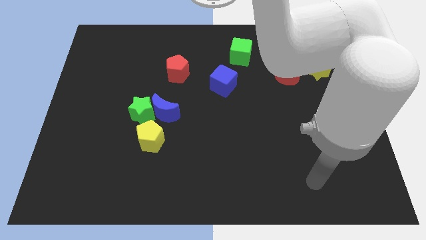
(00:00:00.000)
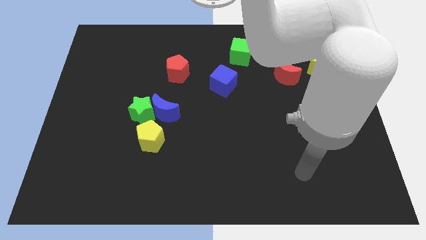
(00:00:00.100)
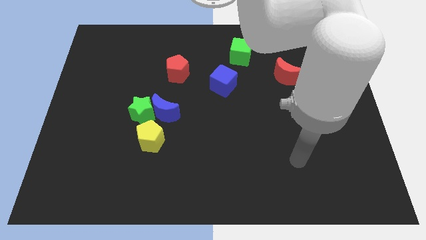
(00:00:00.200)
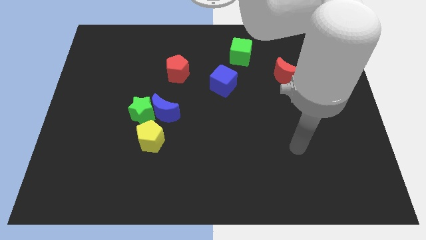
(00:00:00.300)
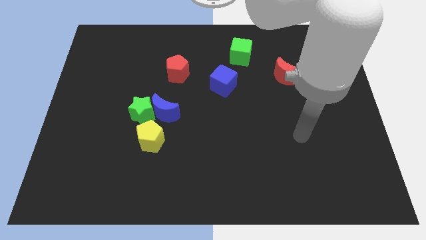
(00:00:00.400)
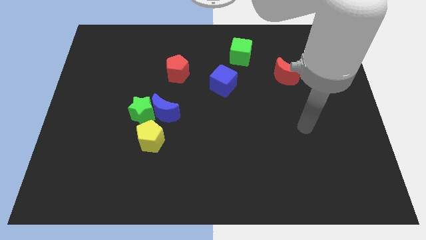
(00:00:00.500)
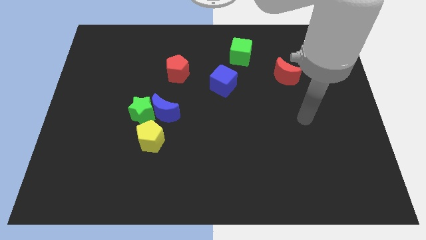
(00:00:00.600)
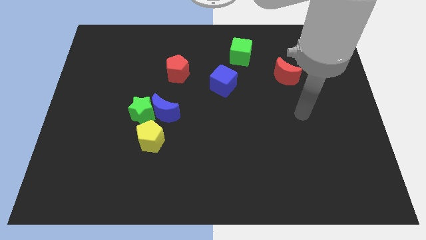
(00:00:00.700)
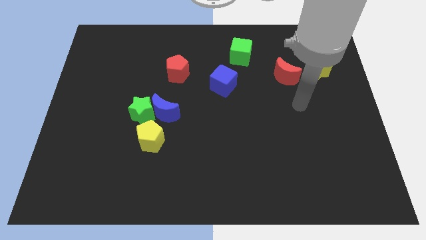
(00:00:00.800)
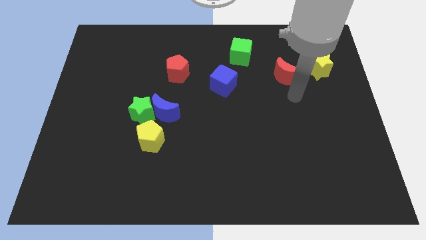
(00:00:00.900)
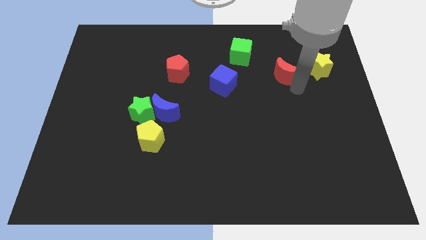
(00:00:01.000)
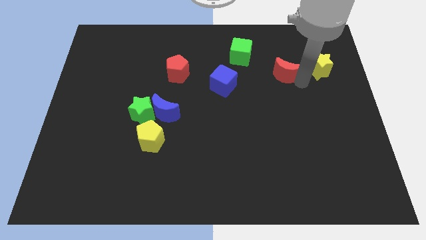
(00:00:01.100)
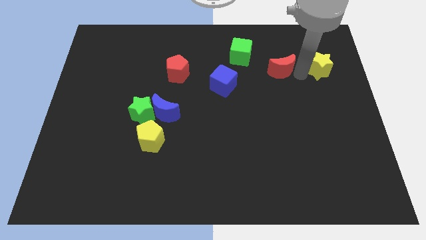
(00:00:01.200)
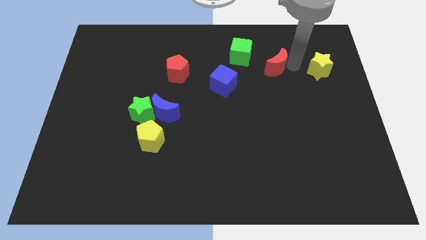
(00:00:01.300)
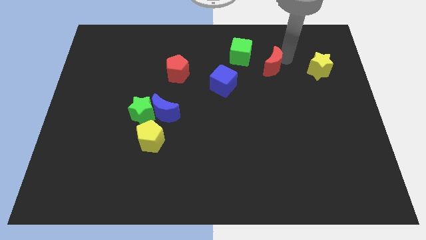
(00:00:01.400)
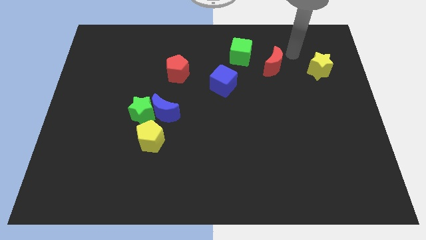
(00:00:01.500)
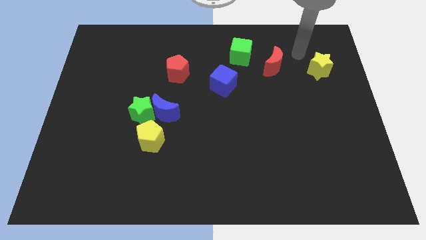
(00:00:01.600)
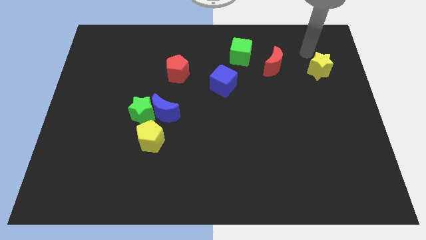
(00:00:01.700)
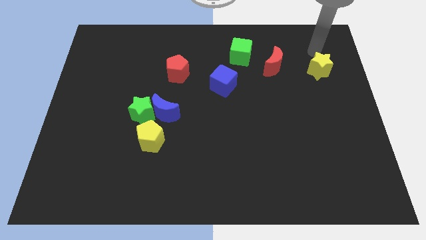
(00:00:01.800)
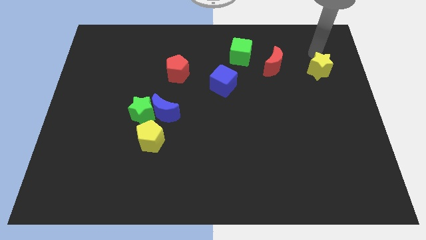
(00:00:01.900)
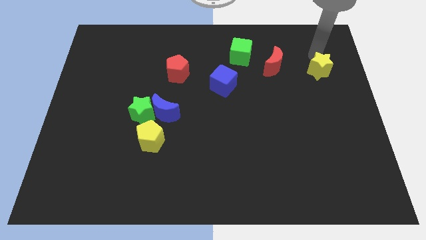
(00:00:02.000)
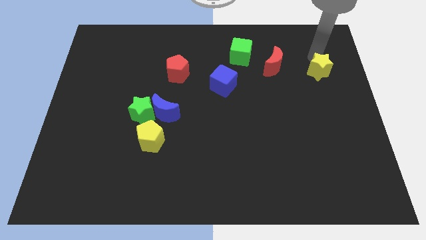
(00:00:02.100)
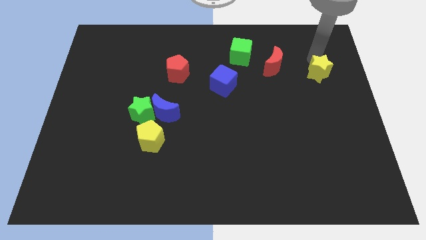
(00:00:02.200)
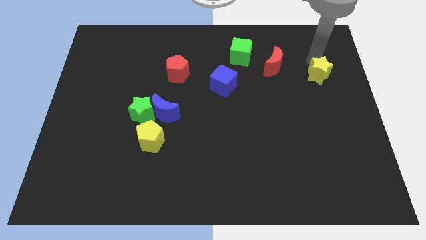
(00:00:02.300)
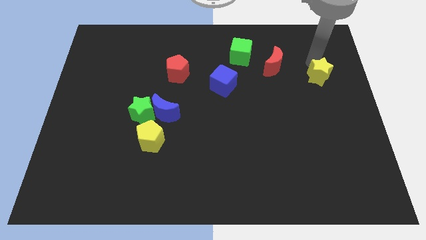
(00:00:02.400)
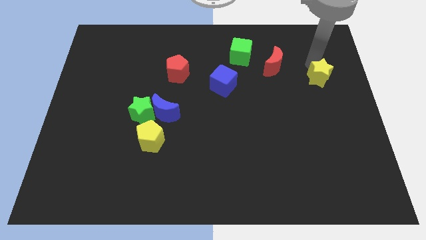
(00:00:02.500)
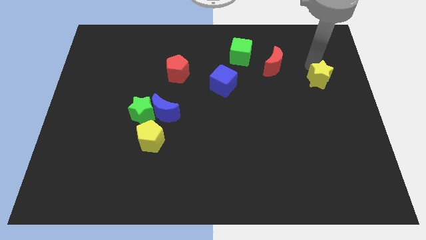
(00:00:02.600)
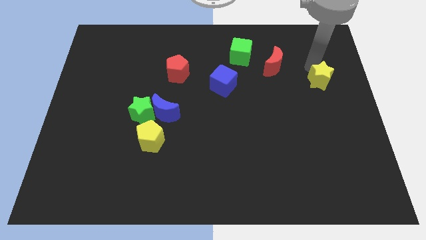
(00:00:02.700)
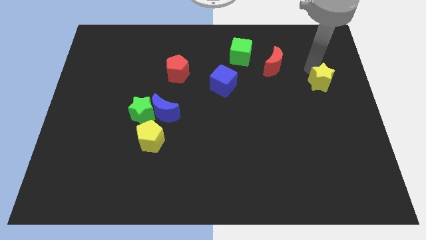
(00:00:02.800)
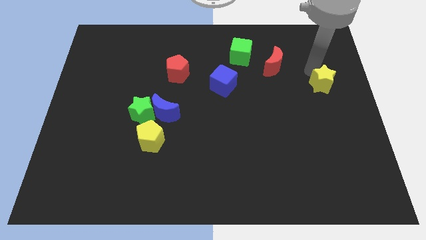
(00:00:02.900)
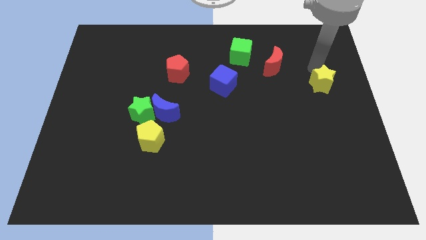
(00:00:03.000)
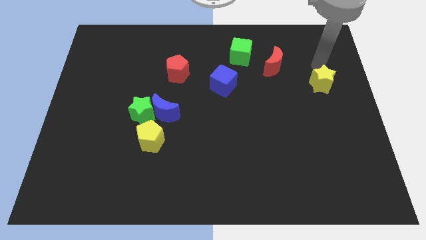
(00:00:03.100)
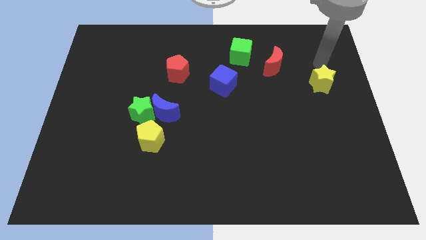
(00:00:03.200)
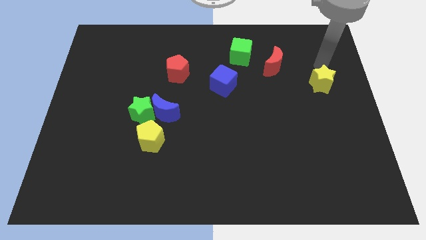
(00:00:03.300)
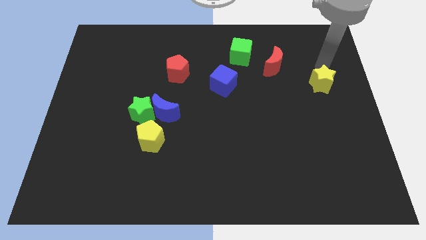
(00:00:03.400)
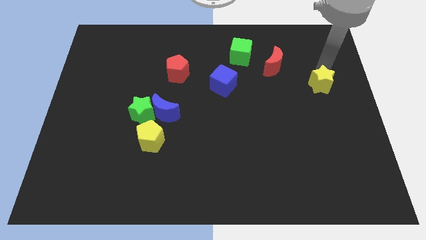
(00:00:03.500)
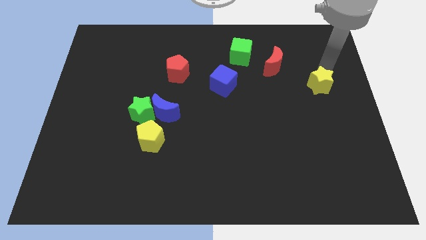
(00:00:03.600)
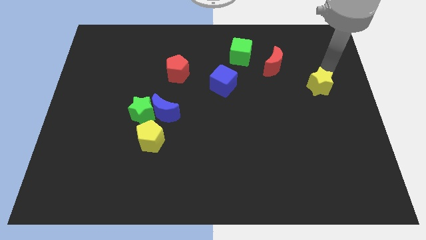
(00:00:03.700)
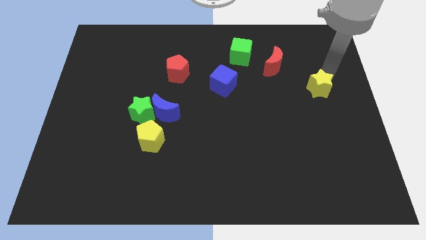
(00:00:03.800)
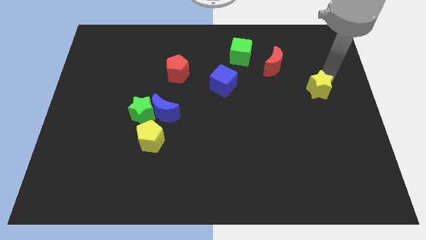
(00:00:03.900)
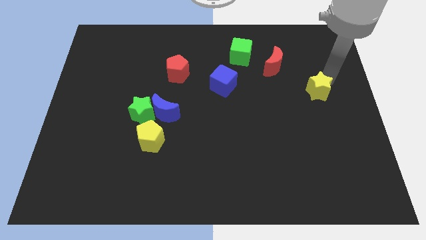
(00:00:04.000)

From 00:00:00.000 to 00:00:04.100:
push the yellow star a bit downwards

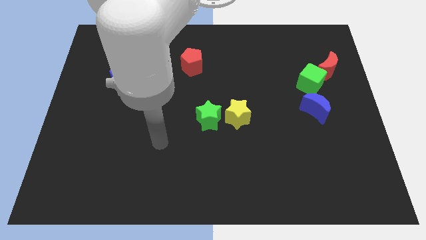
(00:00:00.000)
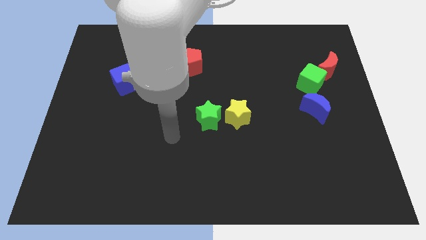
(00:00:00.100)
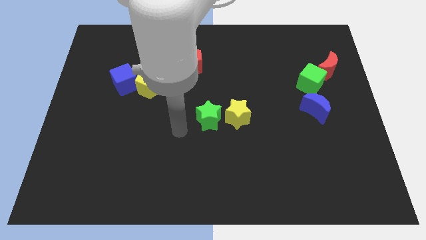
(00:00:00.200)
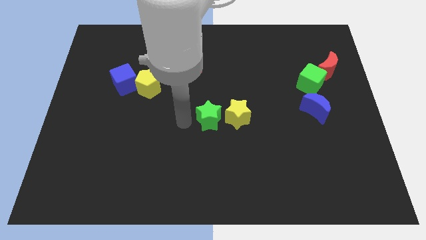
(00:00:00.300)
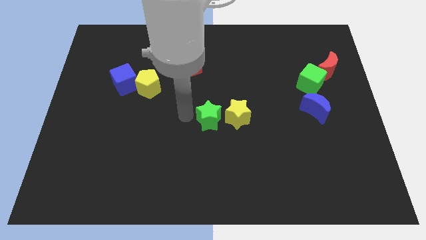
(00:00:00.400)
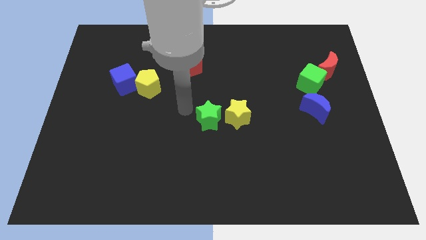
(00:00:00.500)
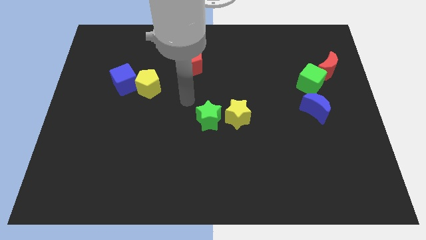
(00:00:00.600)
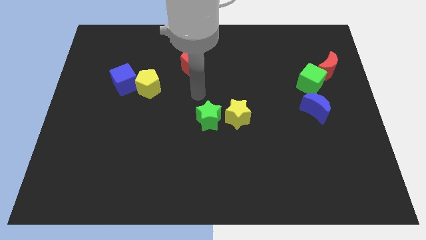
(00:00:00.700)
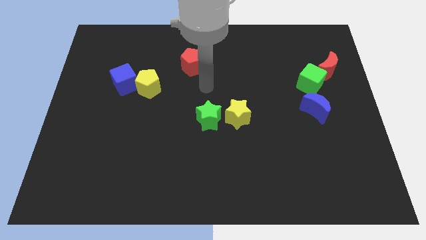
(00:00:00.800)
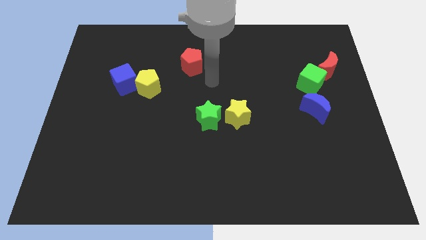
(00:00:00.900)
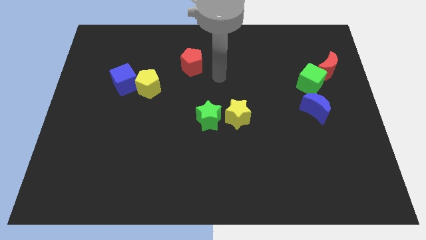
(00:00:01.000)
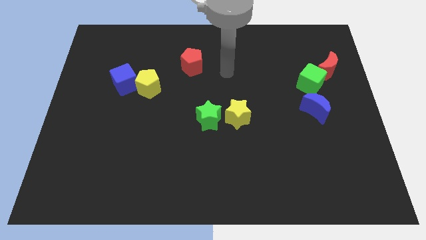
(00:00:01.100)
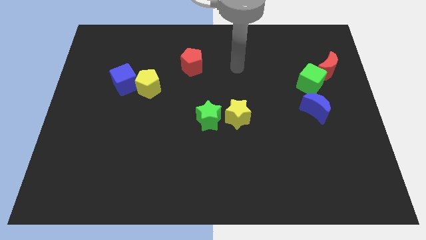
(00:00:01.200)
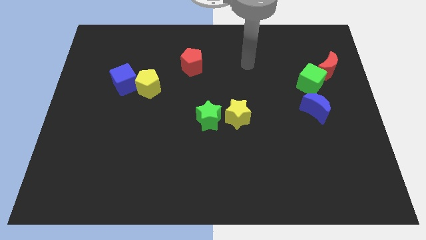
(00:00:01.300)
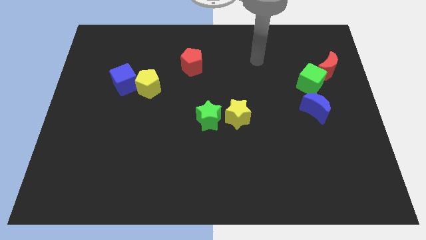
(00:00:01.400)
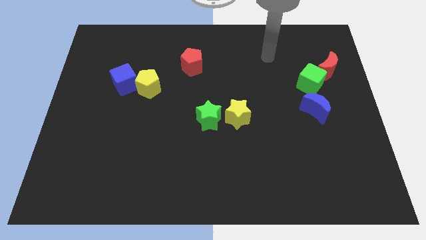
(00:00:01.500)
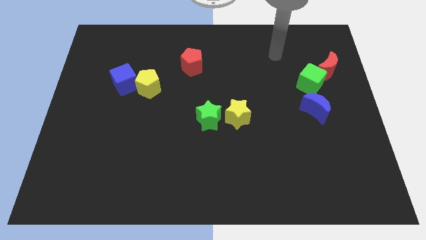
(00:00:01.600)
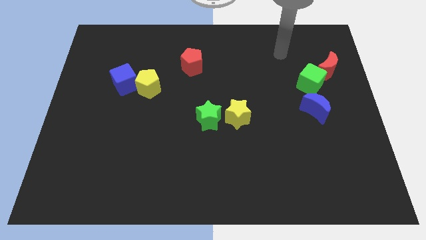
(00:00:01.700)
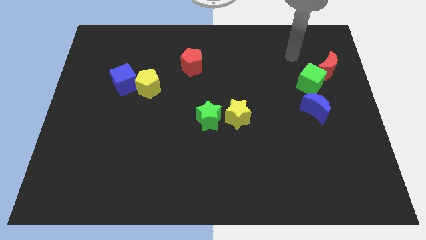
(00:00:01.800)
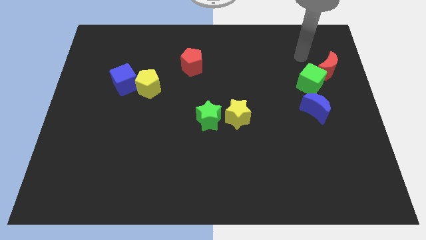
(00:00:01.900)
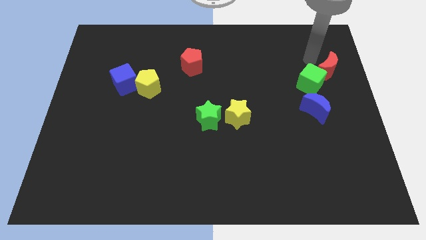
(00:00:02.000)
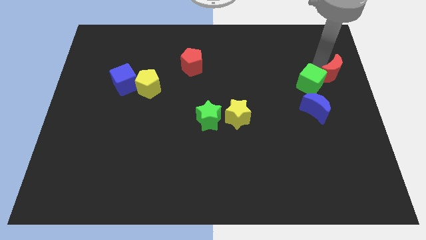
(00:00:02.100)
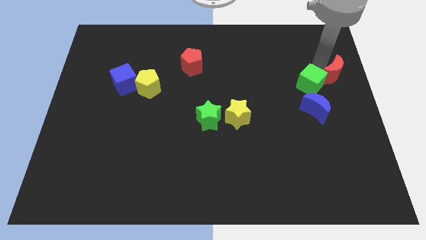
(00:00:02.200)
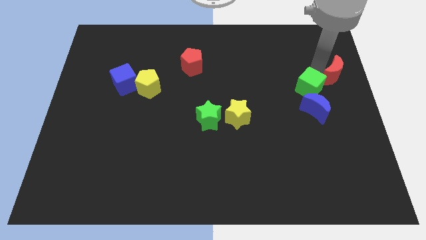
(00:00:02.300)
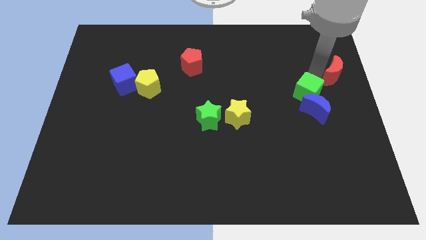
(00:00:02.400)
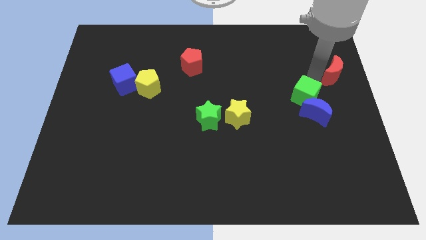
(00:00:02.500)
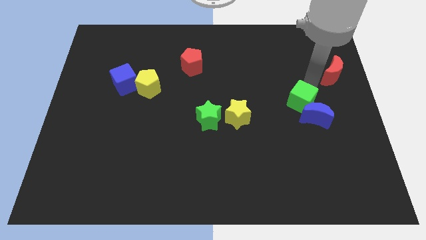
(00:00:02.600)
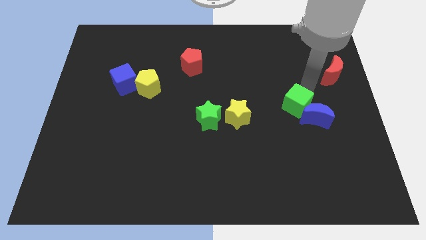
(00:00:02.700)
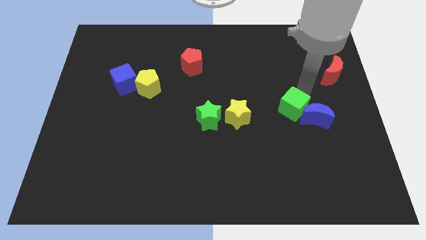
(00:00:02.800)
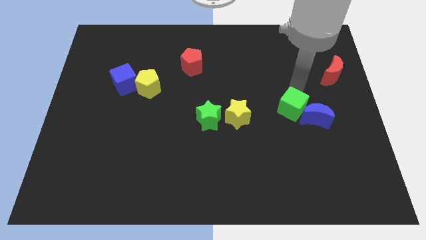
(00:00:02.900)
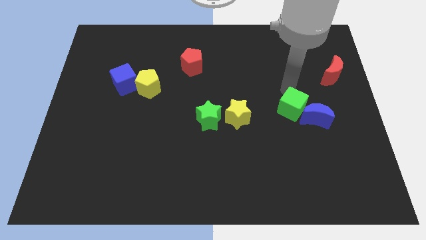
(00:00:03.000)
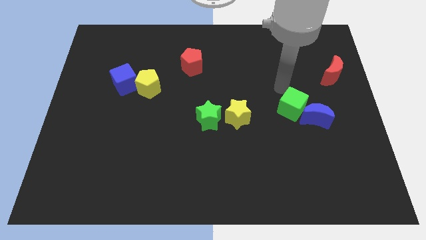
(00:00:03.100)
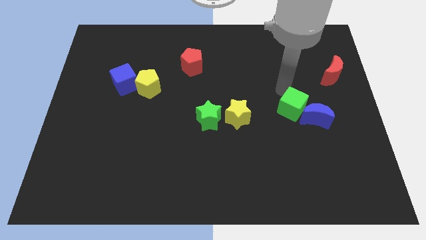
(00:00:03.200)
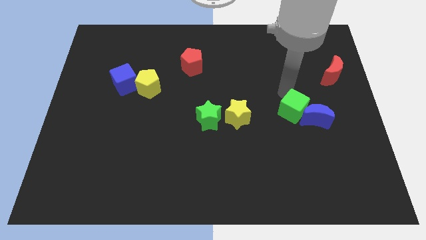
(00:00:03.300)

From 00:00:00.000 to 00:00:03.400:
slightly slide the green cube downwards

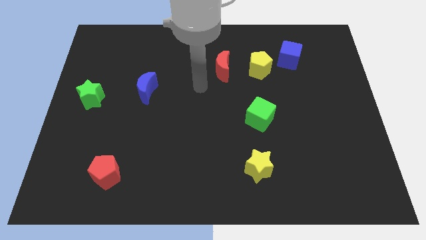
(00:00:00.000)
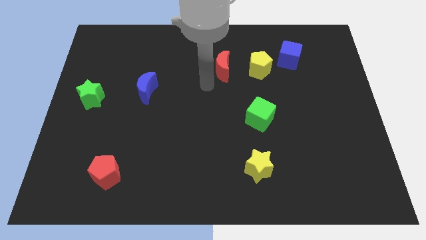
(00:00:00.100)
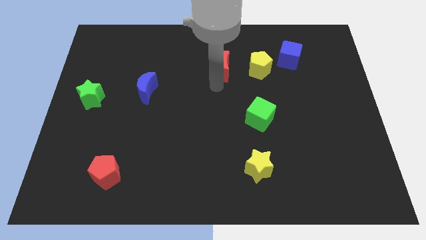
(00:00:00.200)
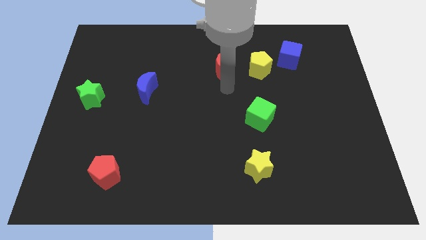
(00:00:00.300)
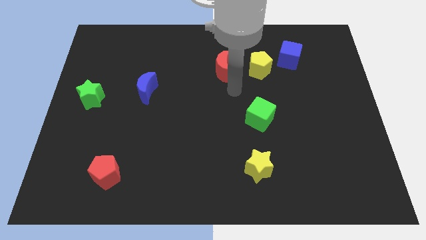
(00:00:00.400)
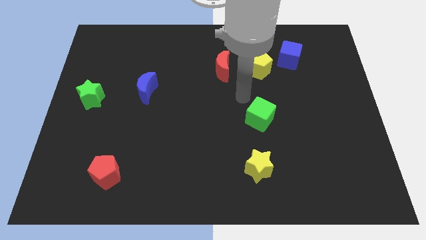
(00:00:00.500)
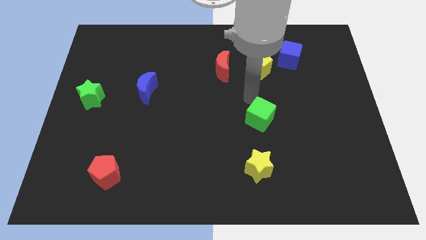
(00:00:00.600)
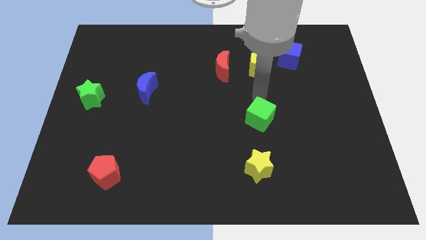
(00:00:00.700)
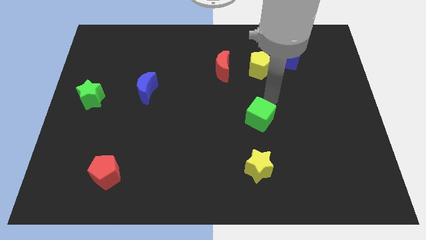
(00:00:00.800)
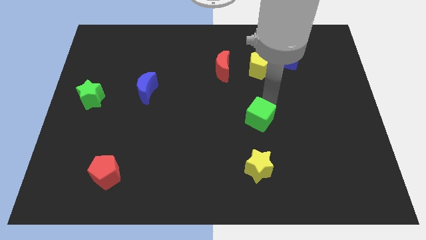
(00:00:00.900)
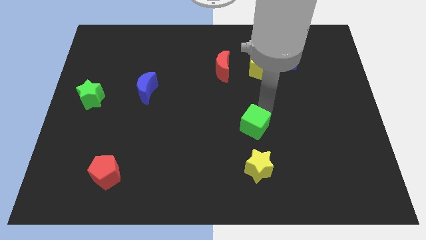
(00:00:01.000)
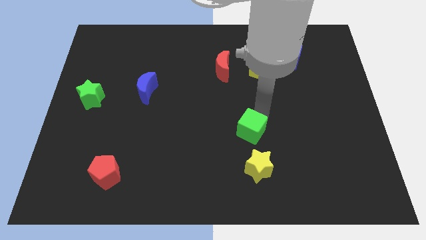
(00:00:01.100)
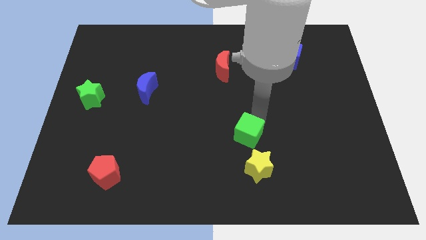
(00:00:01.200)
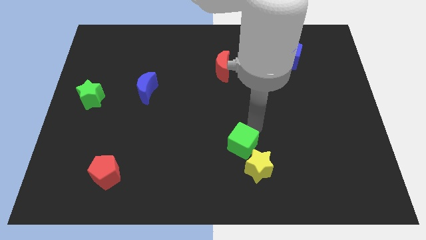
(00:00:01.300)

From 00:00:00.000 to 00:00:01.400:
slightly slide the green cube diagonally downwards and left
